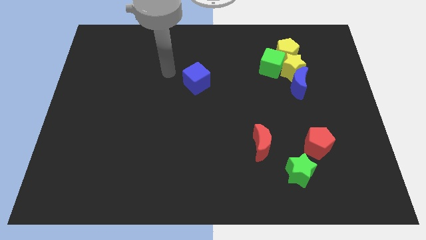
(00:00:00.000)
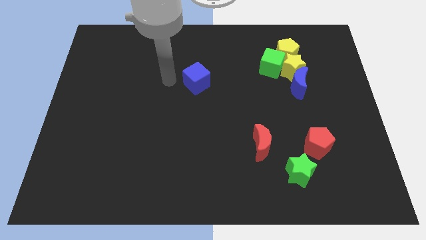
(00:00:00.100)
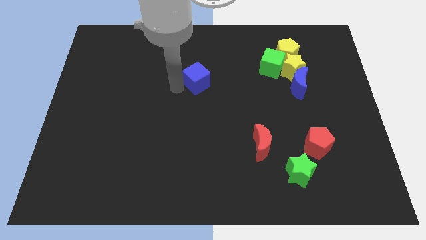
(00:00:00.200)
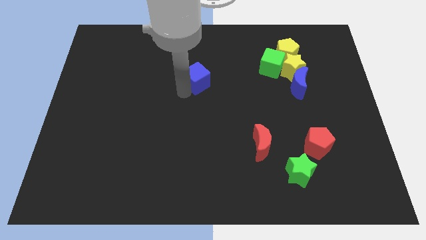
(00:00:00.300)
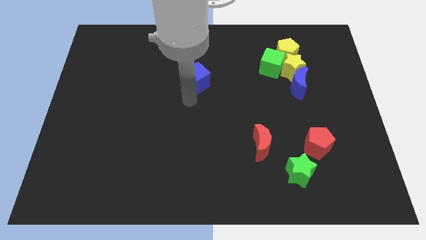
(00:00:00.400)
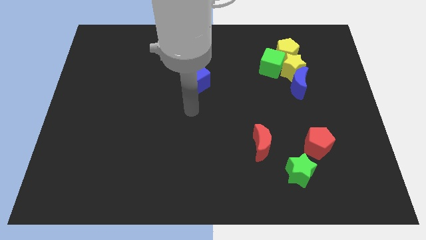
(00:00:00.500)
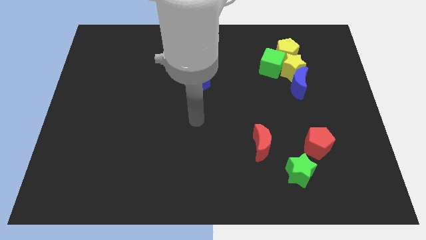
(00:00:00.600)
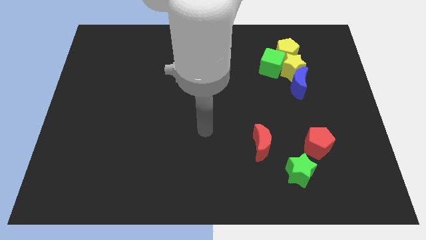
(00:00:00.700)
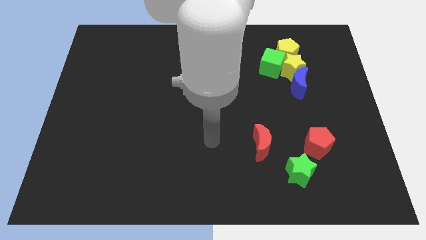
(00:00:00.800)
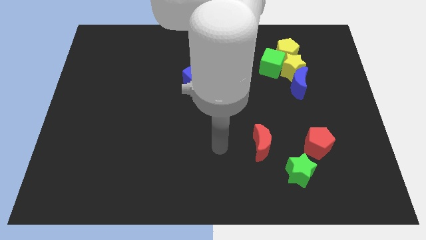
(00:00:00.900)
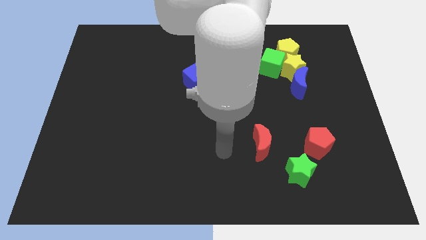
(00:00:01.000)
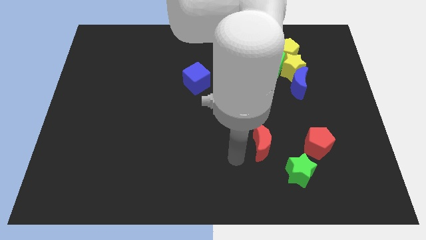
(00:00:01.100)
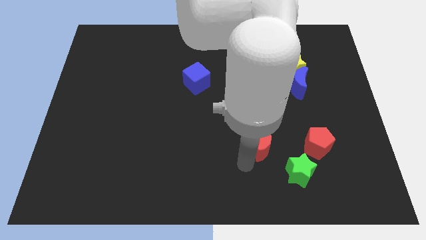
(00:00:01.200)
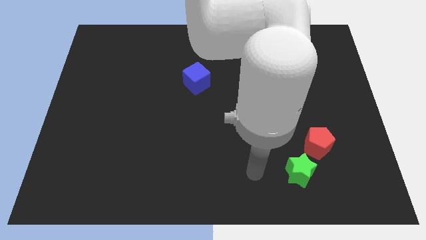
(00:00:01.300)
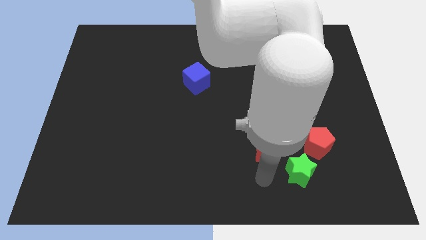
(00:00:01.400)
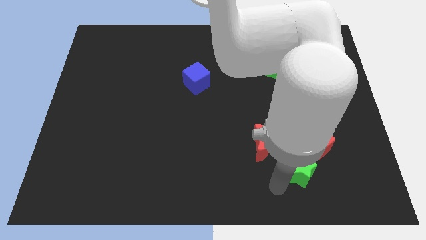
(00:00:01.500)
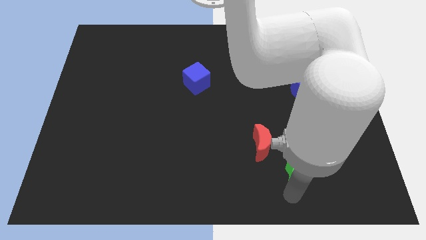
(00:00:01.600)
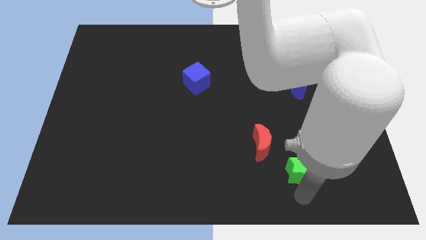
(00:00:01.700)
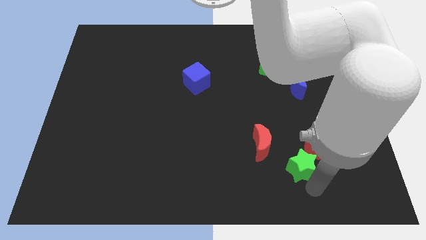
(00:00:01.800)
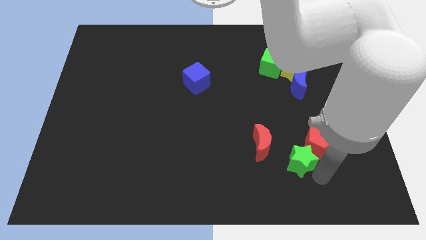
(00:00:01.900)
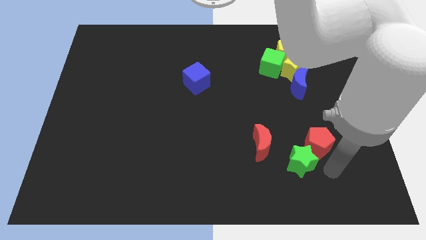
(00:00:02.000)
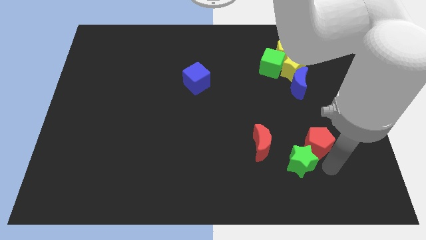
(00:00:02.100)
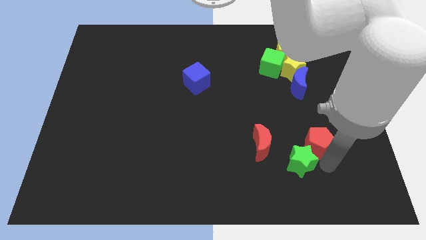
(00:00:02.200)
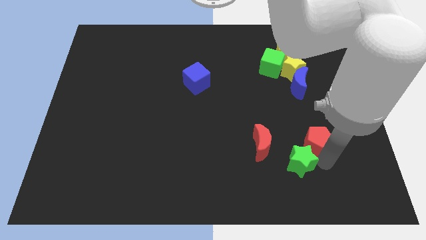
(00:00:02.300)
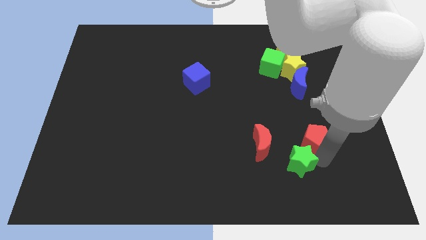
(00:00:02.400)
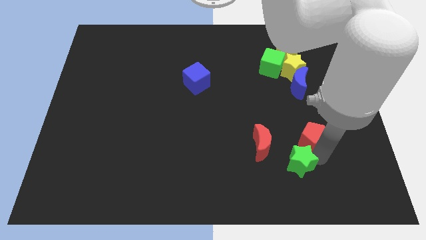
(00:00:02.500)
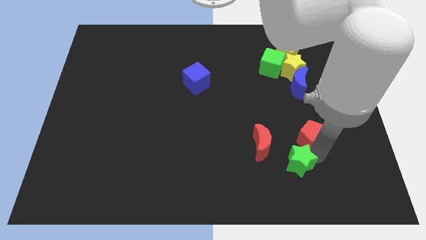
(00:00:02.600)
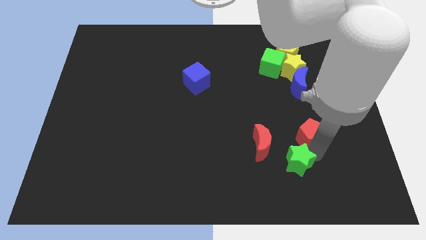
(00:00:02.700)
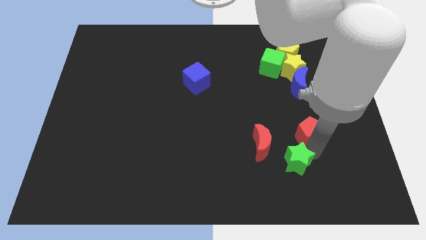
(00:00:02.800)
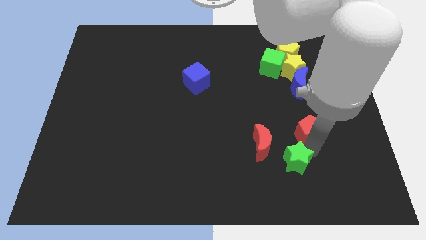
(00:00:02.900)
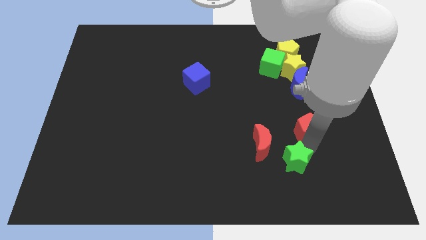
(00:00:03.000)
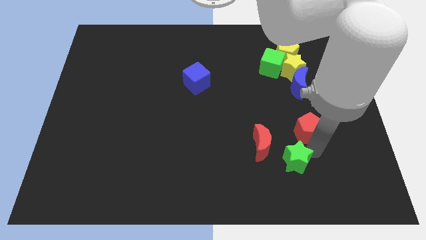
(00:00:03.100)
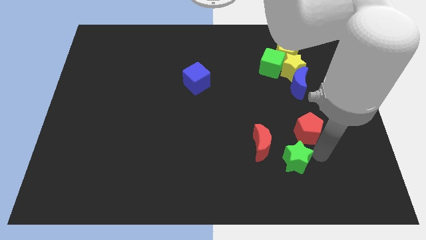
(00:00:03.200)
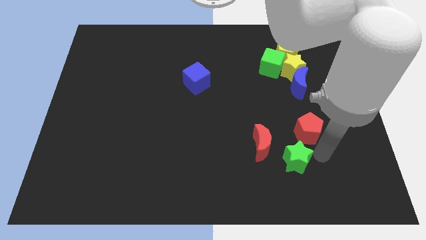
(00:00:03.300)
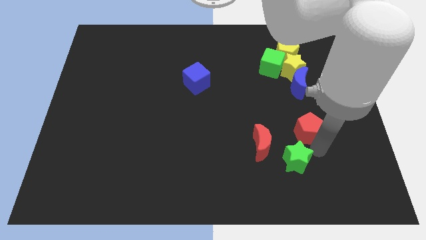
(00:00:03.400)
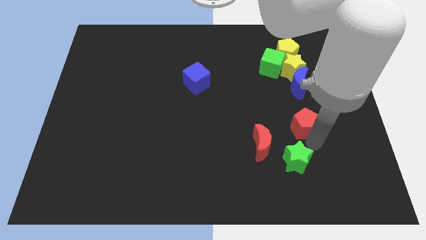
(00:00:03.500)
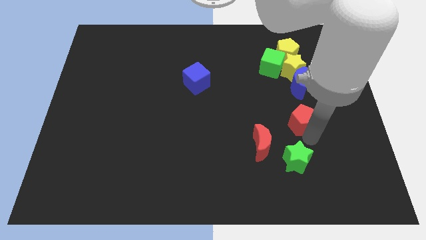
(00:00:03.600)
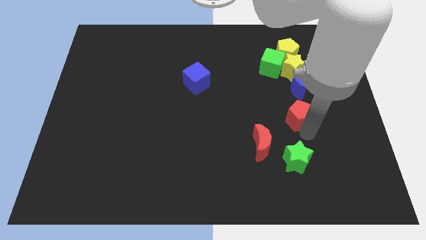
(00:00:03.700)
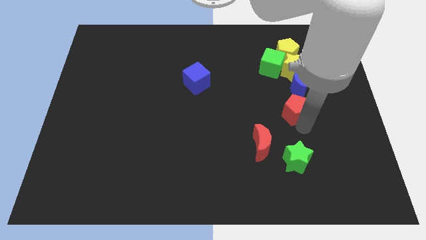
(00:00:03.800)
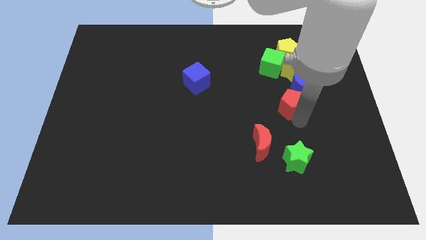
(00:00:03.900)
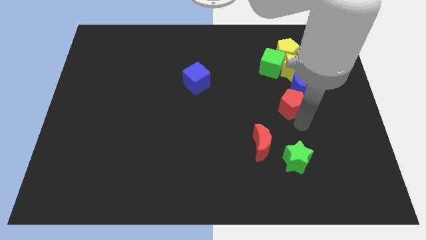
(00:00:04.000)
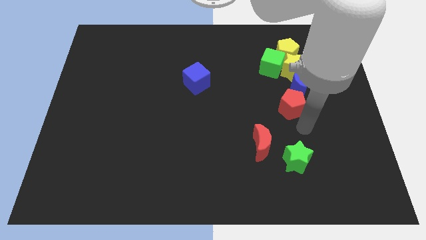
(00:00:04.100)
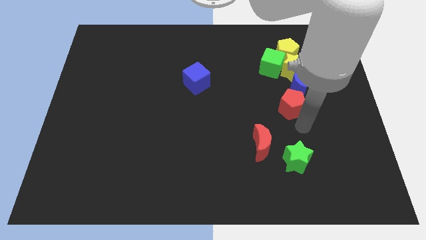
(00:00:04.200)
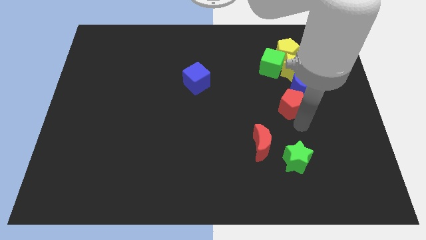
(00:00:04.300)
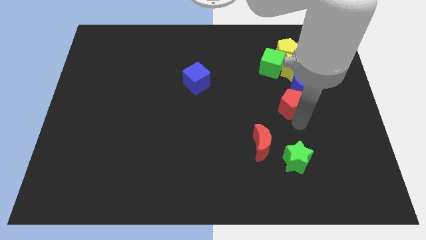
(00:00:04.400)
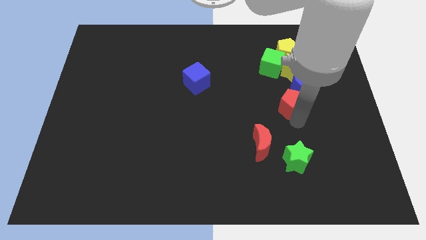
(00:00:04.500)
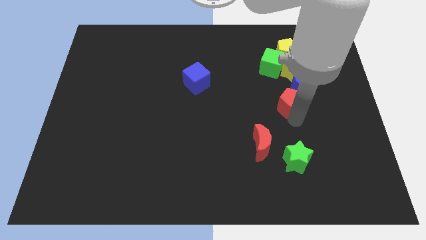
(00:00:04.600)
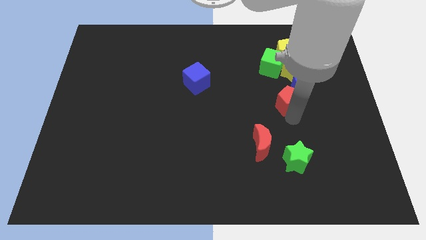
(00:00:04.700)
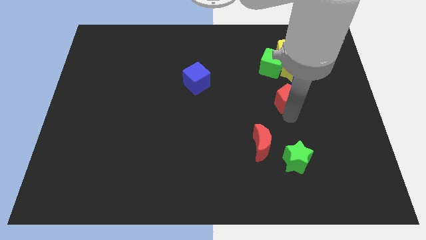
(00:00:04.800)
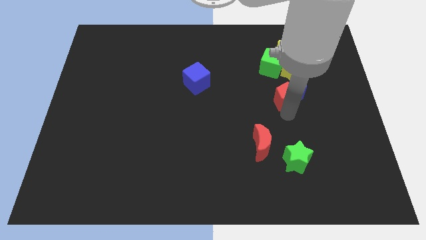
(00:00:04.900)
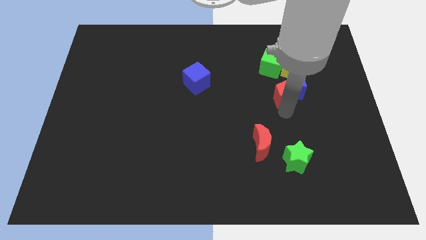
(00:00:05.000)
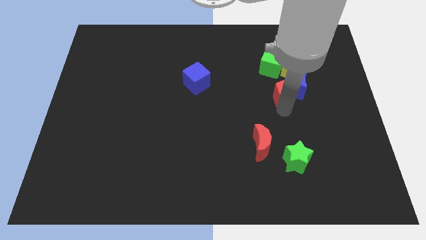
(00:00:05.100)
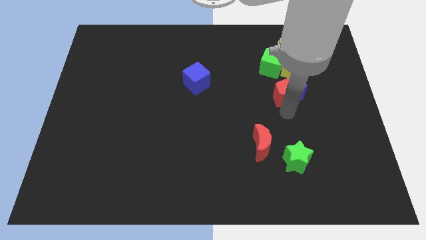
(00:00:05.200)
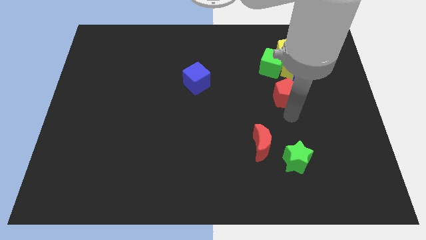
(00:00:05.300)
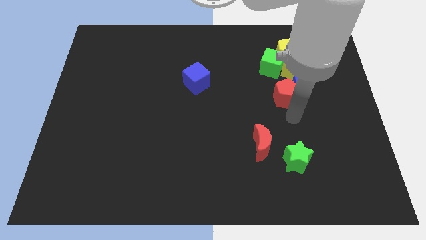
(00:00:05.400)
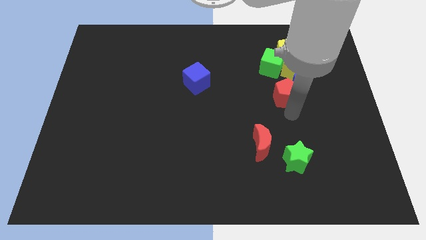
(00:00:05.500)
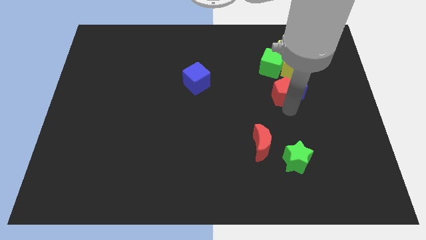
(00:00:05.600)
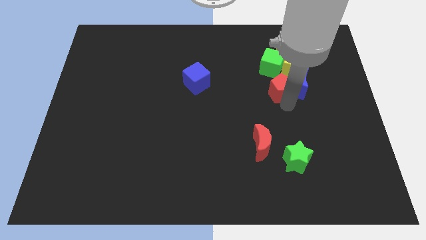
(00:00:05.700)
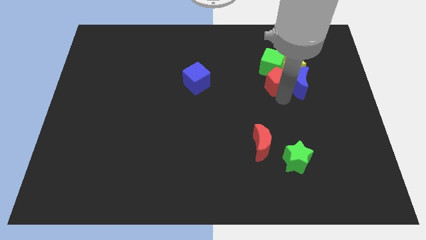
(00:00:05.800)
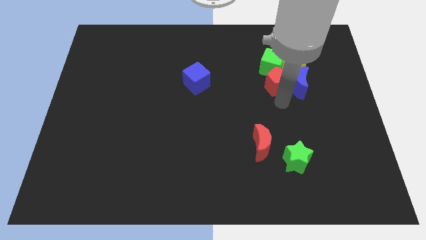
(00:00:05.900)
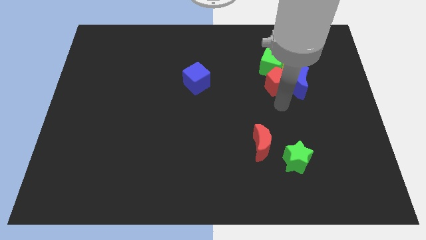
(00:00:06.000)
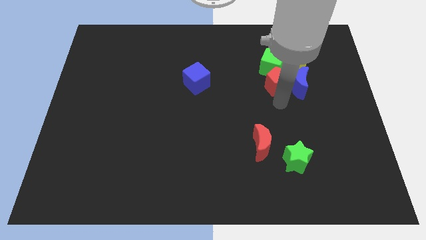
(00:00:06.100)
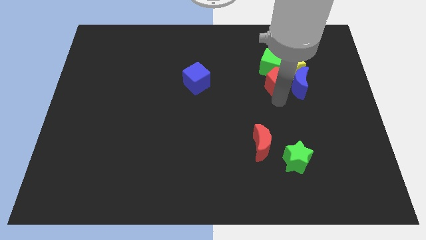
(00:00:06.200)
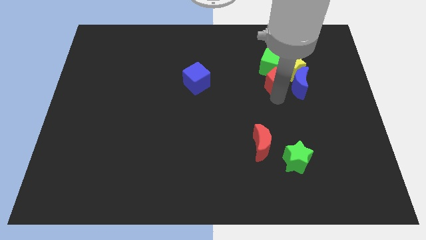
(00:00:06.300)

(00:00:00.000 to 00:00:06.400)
put the red pentagon next to the green cube
